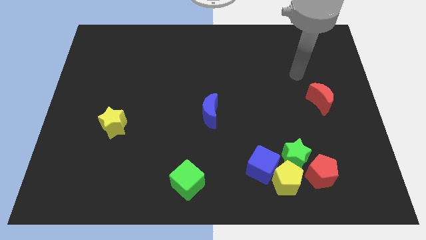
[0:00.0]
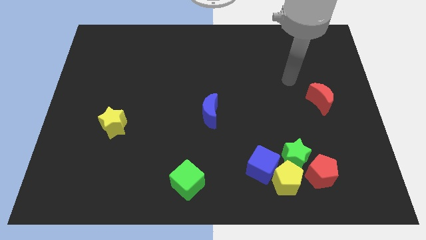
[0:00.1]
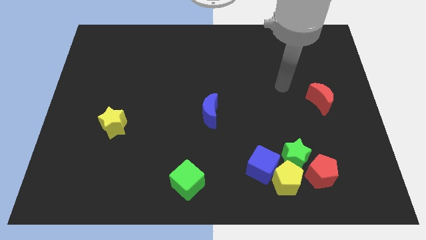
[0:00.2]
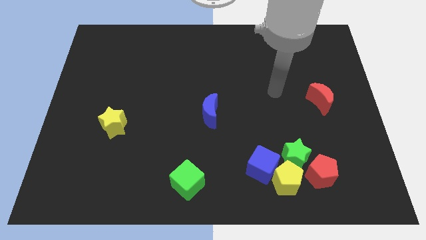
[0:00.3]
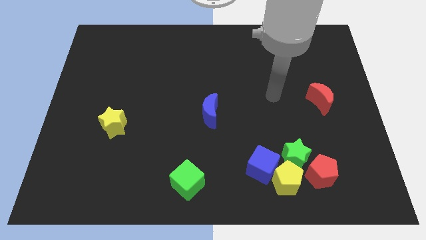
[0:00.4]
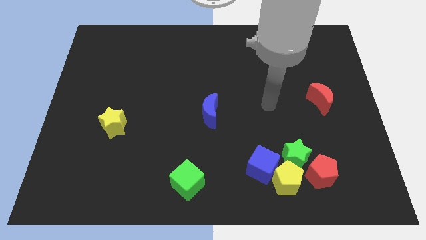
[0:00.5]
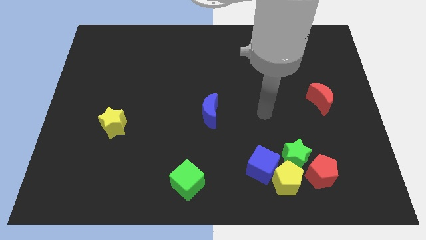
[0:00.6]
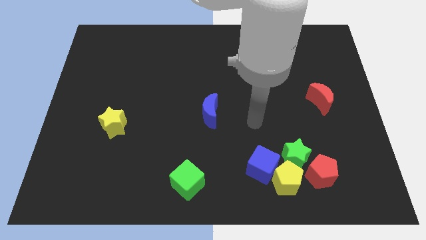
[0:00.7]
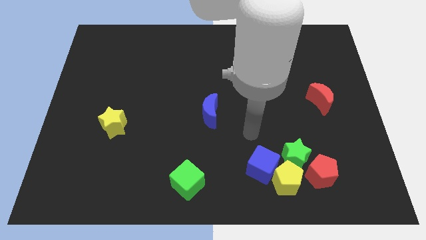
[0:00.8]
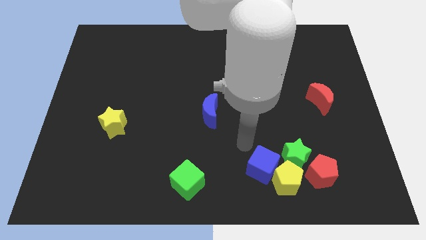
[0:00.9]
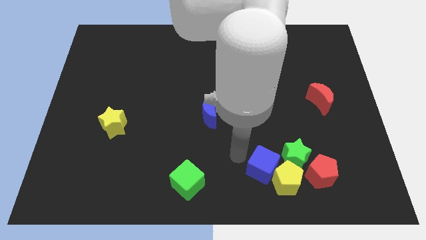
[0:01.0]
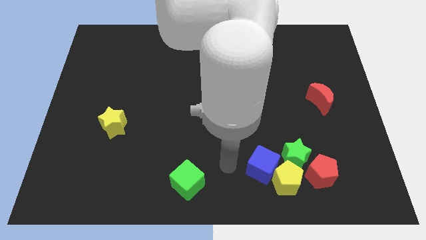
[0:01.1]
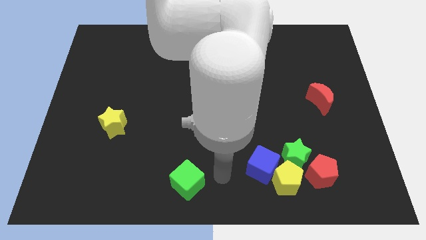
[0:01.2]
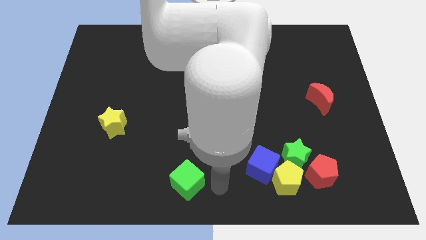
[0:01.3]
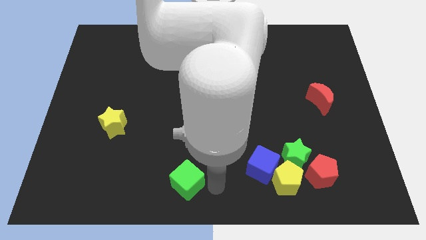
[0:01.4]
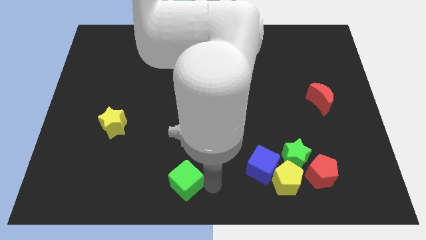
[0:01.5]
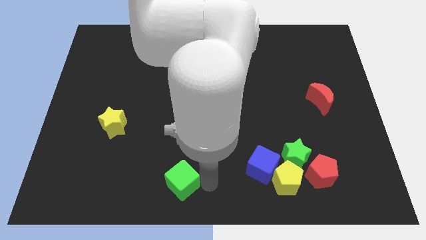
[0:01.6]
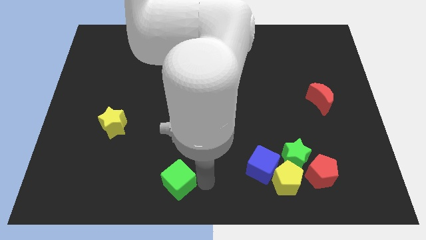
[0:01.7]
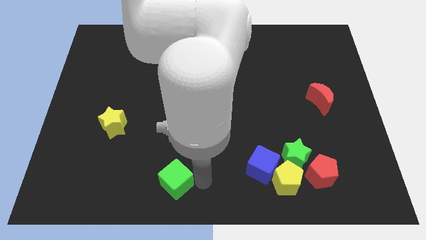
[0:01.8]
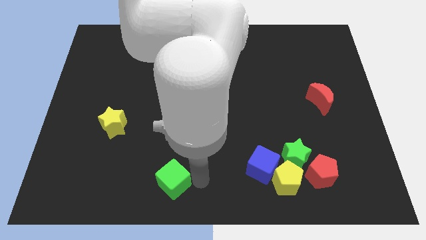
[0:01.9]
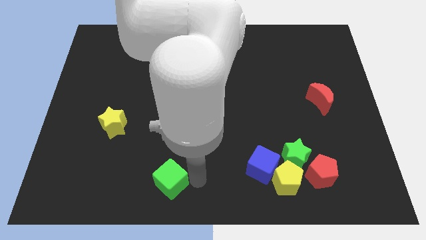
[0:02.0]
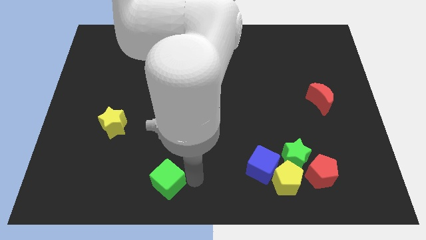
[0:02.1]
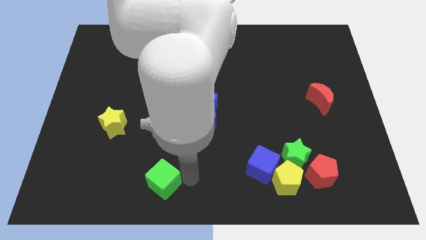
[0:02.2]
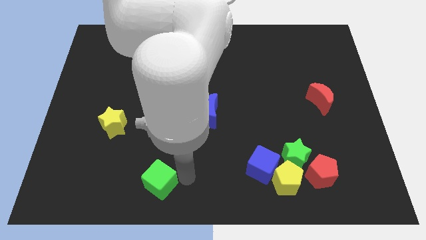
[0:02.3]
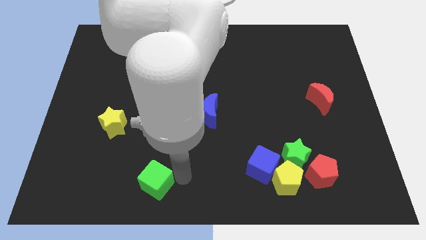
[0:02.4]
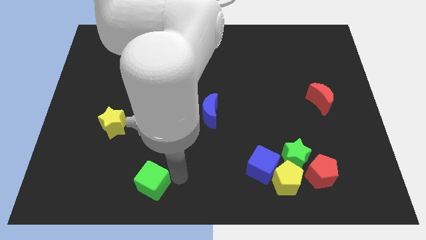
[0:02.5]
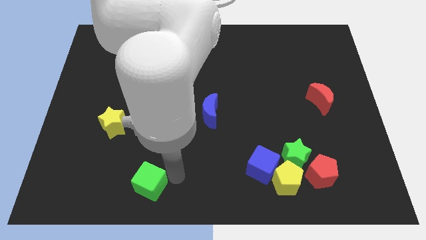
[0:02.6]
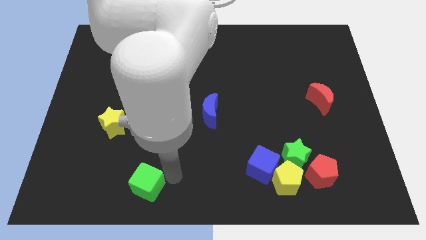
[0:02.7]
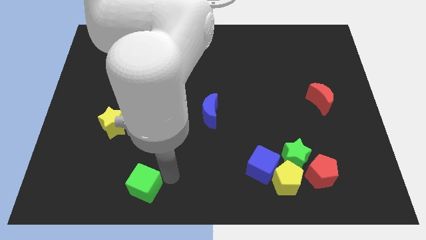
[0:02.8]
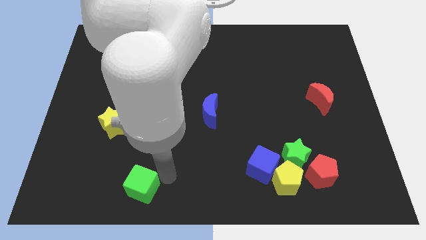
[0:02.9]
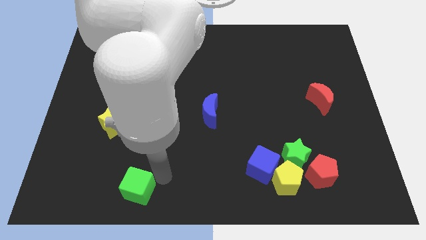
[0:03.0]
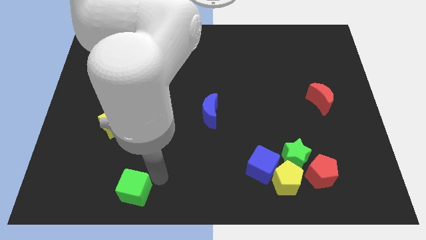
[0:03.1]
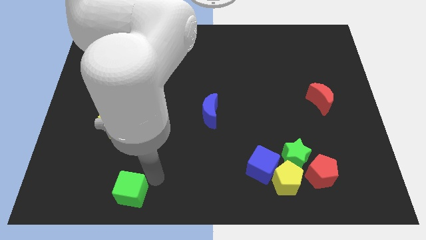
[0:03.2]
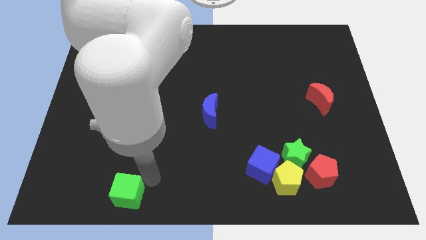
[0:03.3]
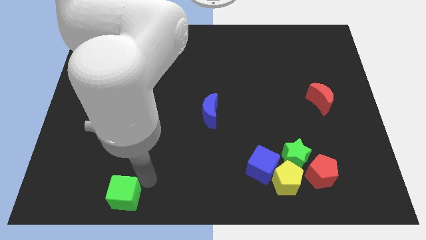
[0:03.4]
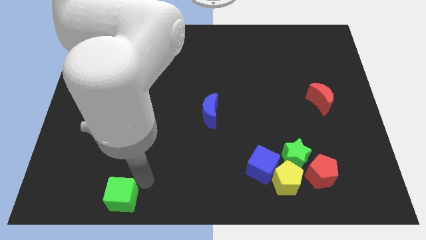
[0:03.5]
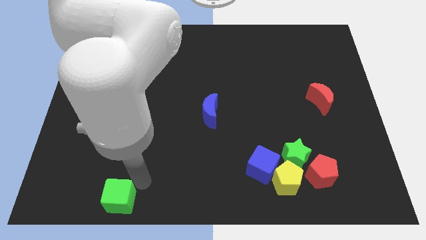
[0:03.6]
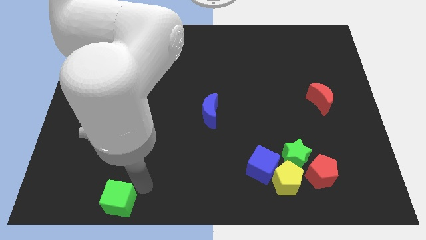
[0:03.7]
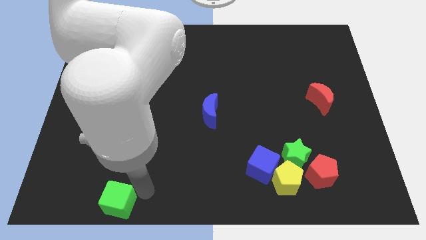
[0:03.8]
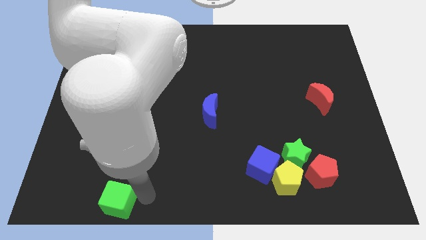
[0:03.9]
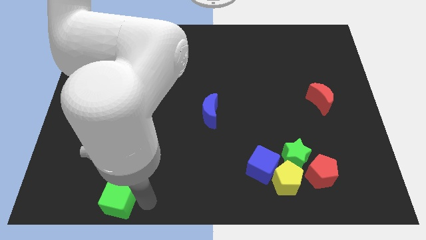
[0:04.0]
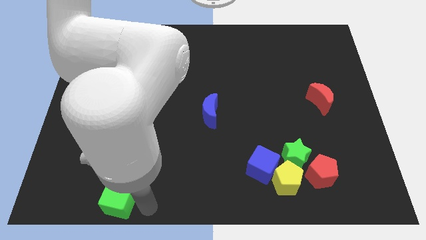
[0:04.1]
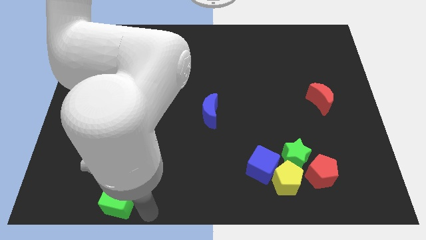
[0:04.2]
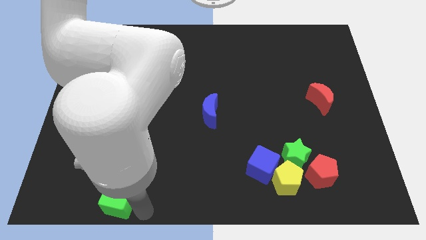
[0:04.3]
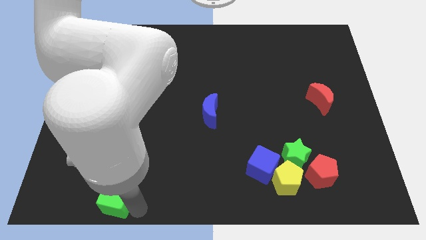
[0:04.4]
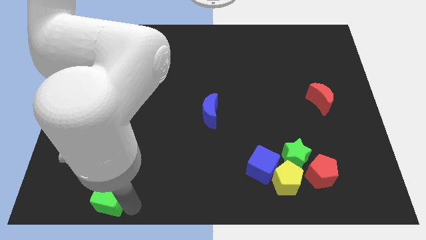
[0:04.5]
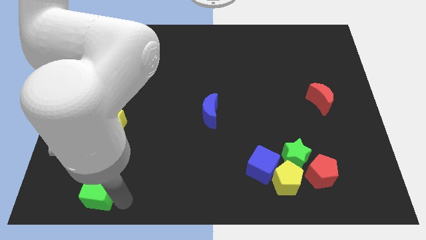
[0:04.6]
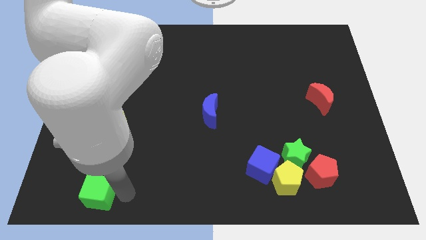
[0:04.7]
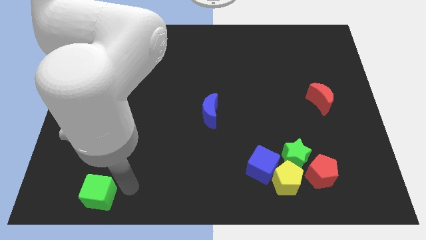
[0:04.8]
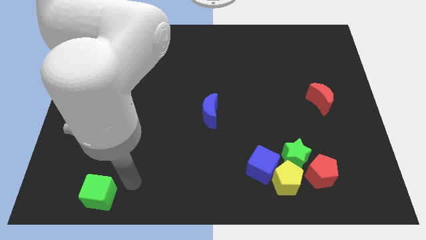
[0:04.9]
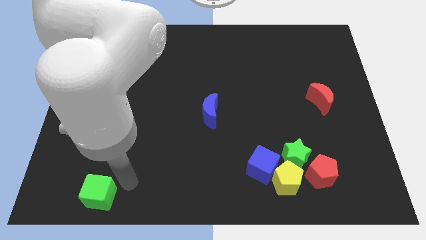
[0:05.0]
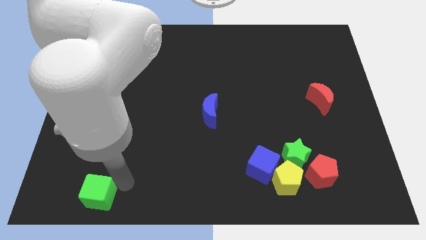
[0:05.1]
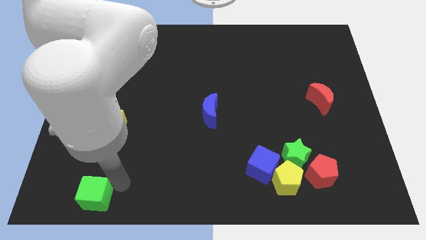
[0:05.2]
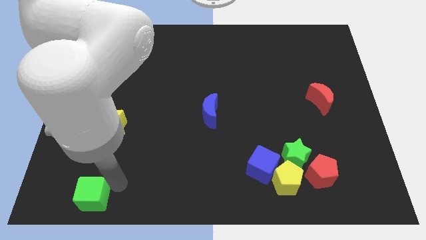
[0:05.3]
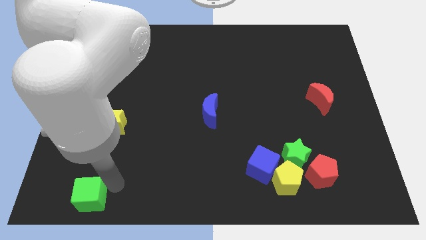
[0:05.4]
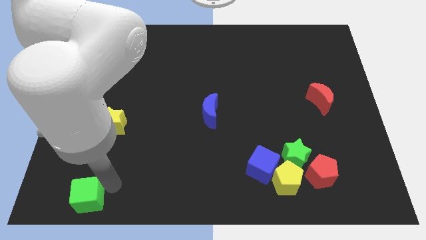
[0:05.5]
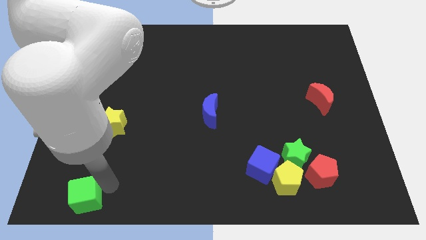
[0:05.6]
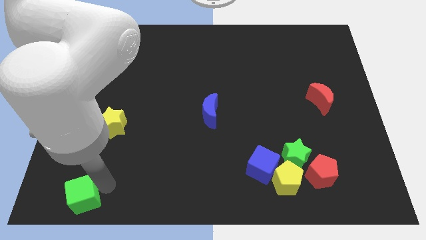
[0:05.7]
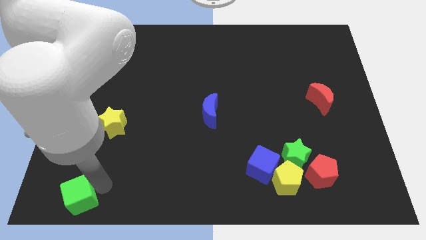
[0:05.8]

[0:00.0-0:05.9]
move the green cube to the bottom left

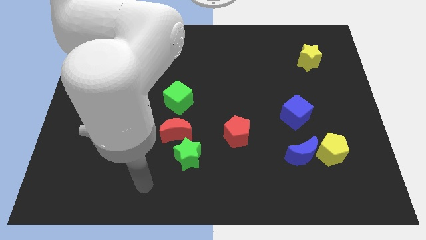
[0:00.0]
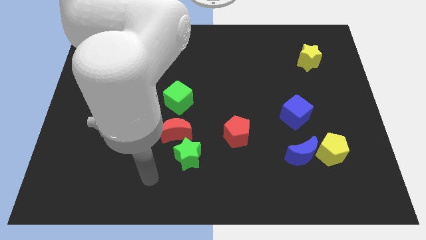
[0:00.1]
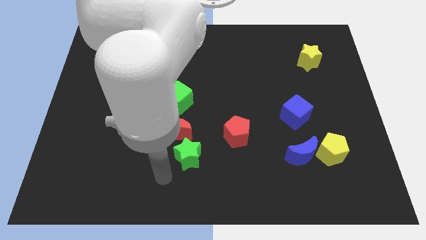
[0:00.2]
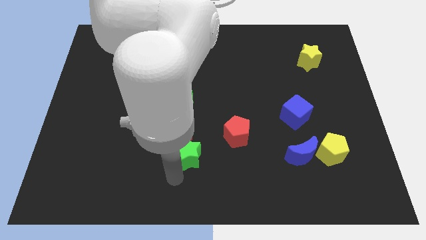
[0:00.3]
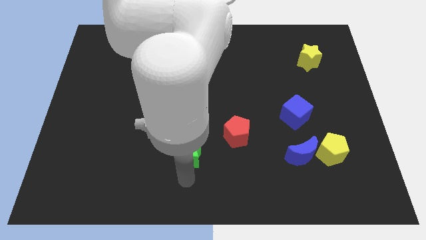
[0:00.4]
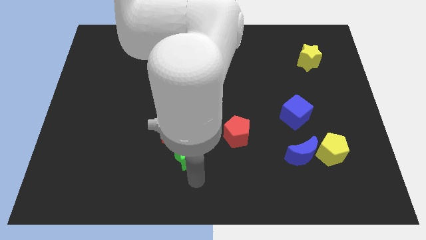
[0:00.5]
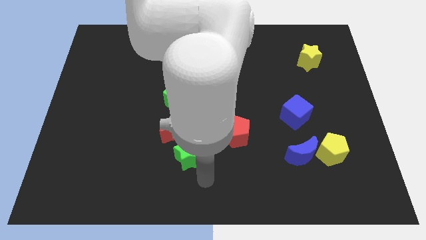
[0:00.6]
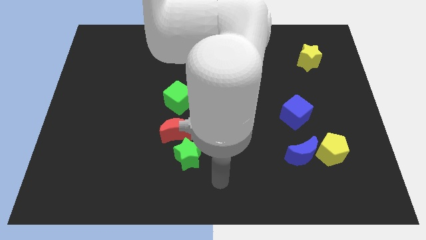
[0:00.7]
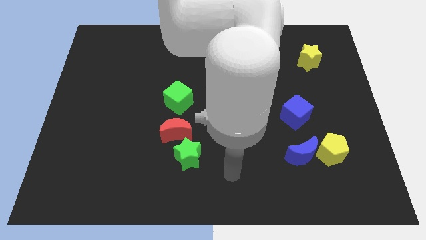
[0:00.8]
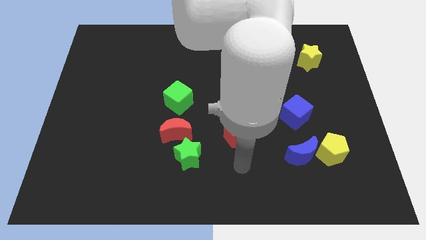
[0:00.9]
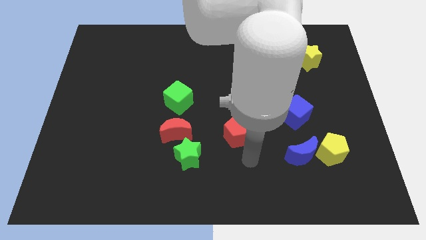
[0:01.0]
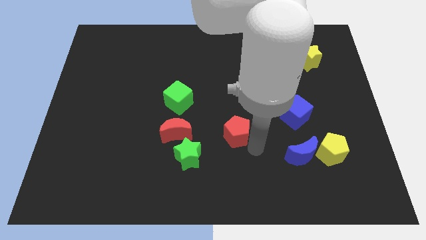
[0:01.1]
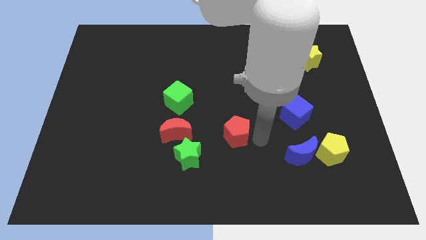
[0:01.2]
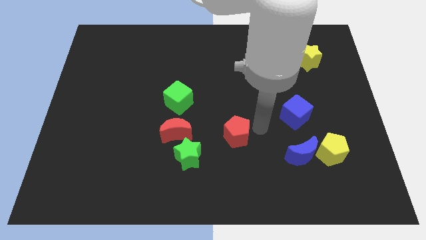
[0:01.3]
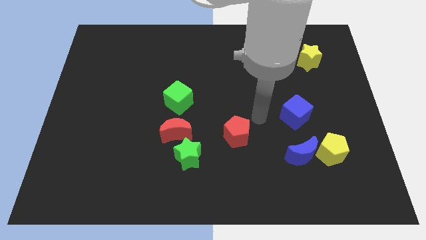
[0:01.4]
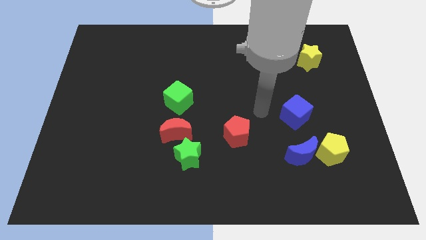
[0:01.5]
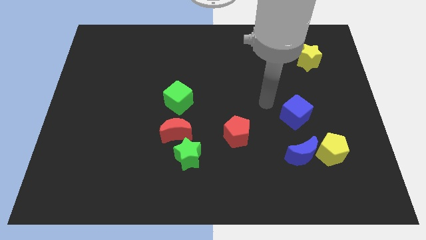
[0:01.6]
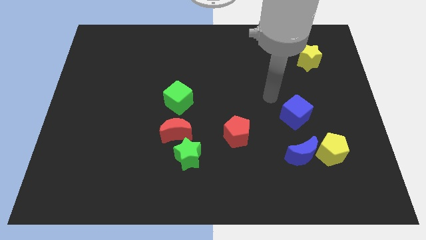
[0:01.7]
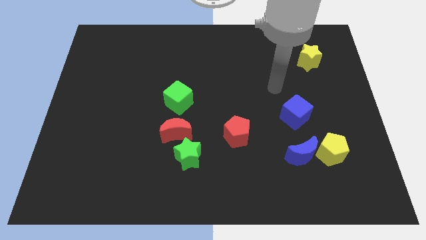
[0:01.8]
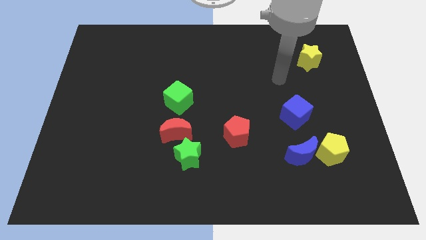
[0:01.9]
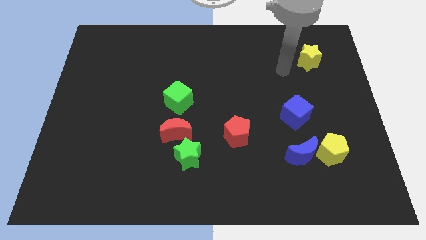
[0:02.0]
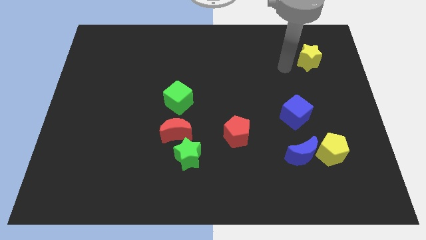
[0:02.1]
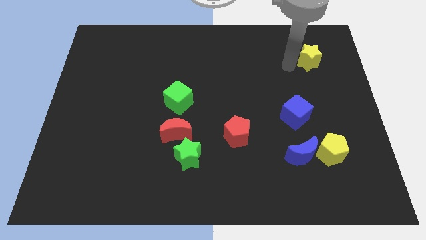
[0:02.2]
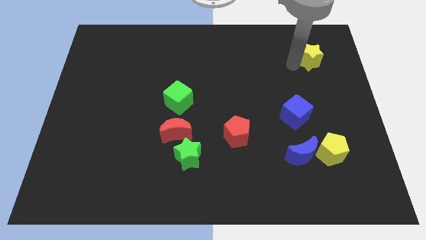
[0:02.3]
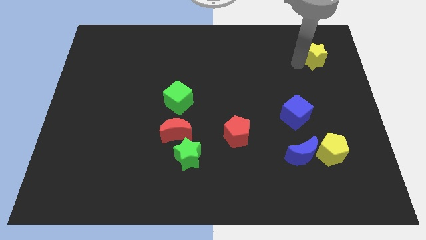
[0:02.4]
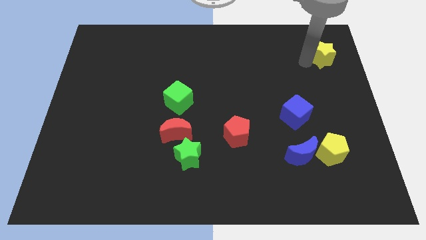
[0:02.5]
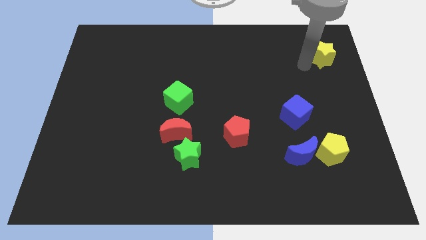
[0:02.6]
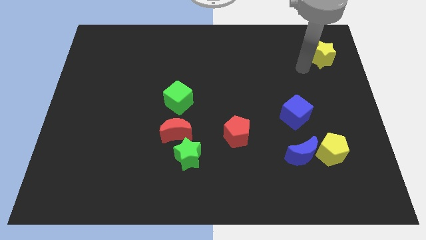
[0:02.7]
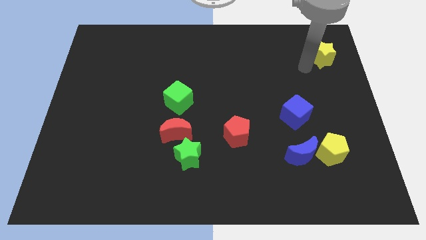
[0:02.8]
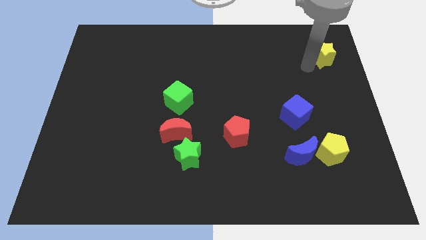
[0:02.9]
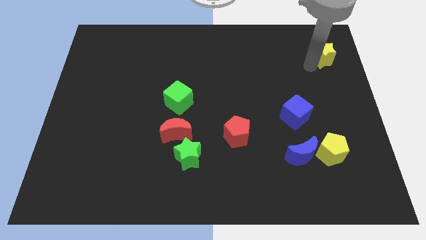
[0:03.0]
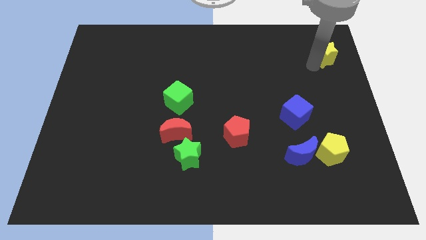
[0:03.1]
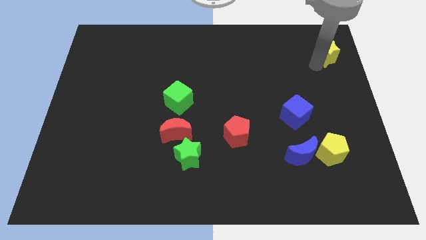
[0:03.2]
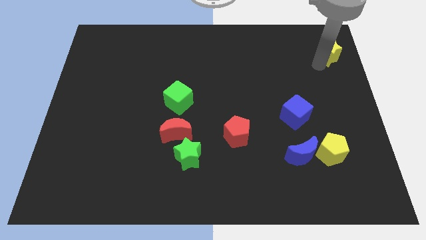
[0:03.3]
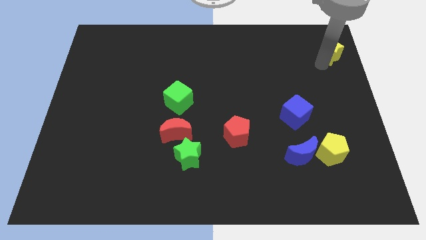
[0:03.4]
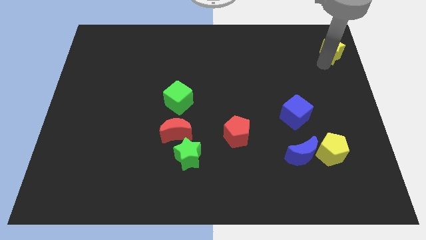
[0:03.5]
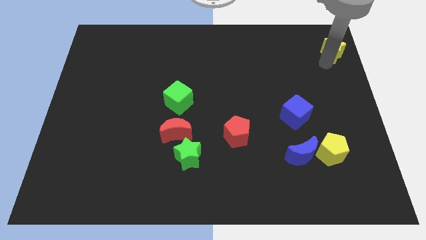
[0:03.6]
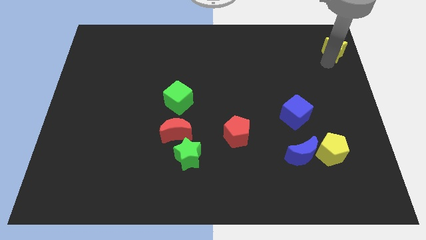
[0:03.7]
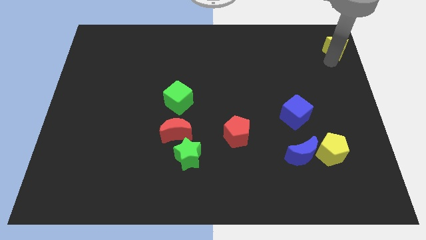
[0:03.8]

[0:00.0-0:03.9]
move the yellow star to the top right corner
